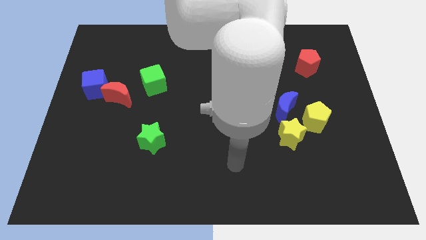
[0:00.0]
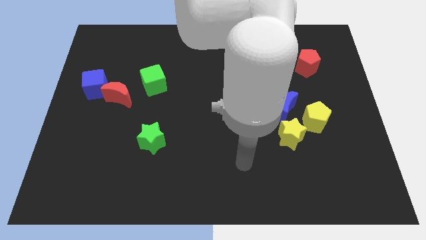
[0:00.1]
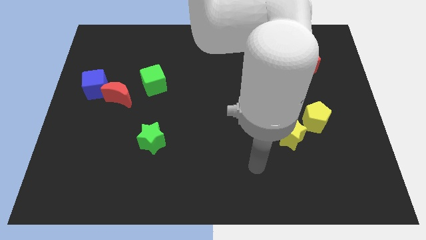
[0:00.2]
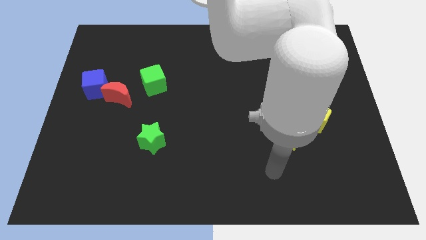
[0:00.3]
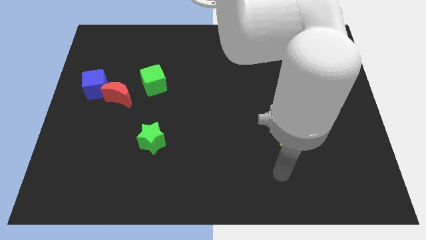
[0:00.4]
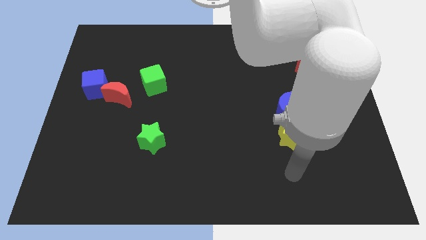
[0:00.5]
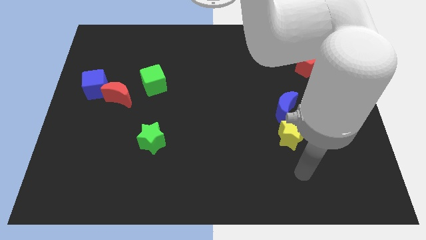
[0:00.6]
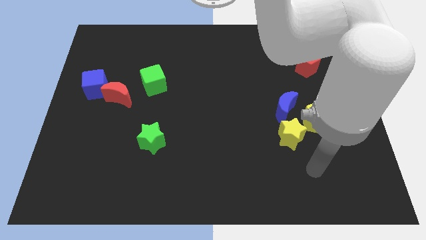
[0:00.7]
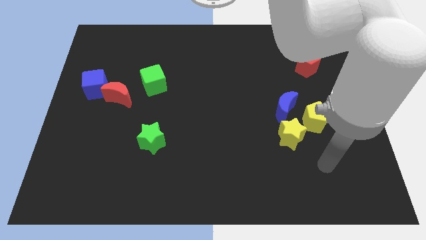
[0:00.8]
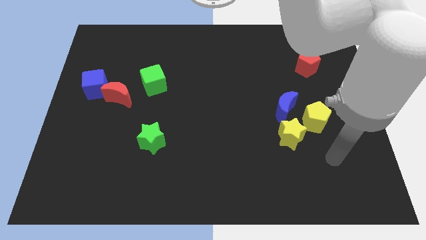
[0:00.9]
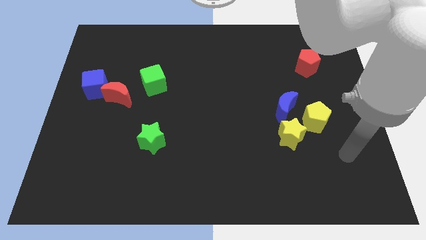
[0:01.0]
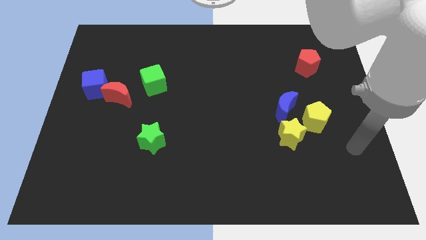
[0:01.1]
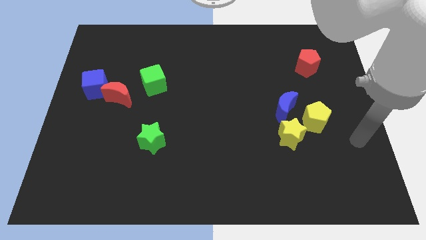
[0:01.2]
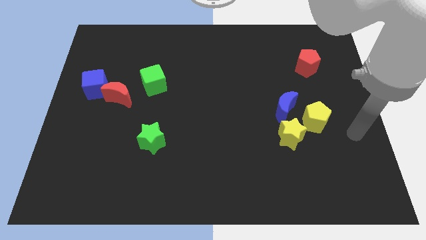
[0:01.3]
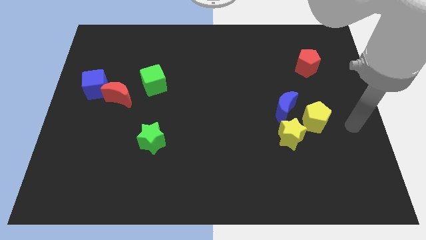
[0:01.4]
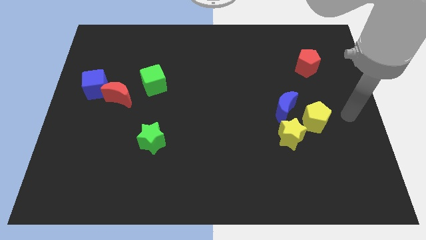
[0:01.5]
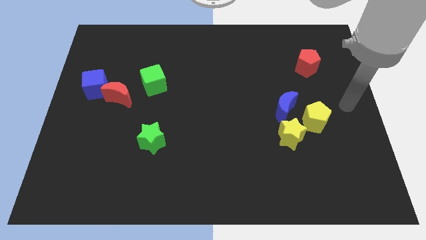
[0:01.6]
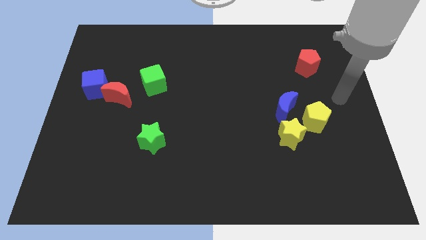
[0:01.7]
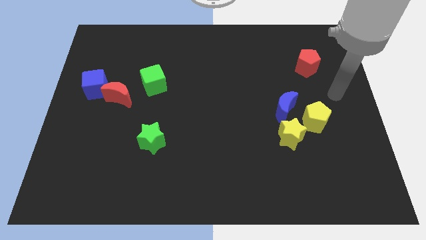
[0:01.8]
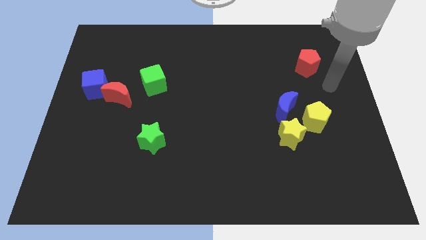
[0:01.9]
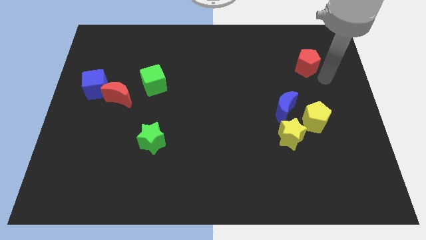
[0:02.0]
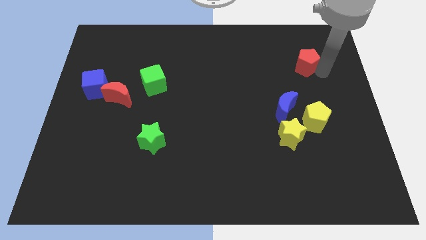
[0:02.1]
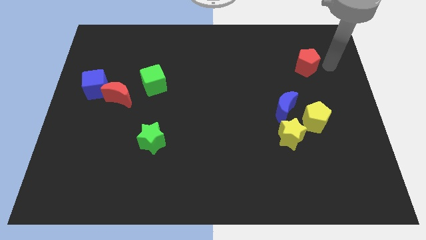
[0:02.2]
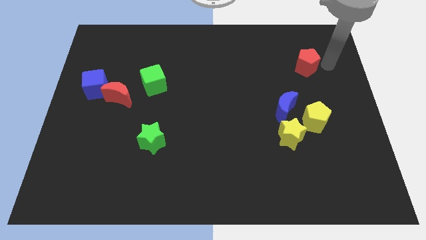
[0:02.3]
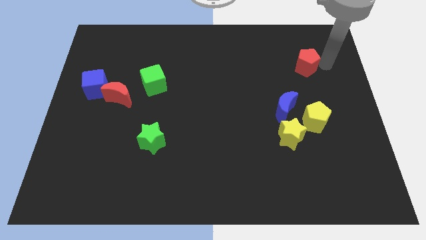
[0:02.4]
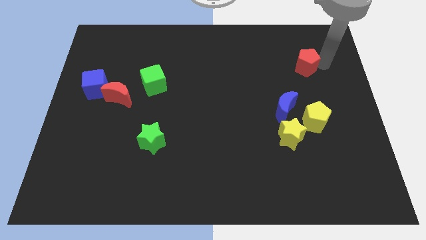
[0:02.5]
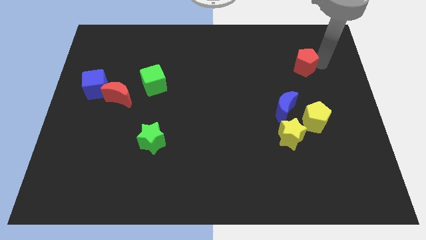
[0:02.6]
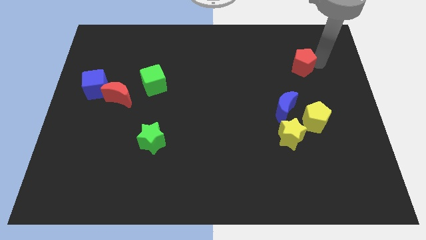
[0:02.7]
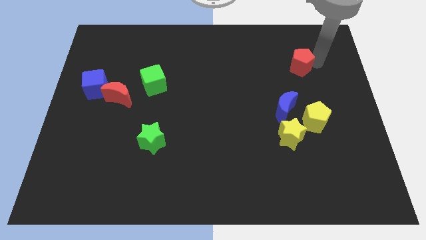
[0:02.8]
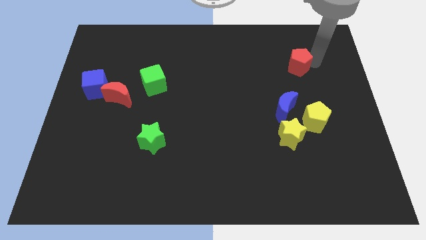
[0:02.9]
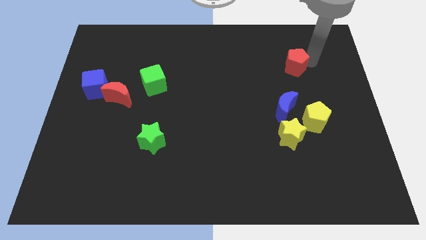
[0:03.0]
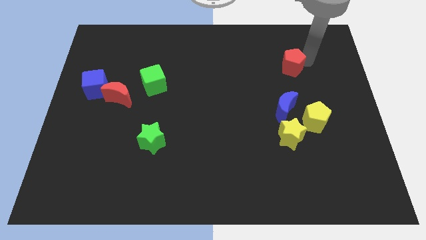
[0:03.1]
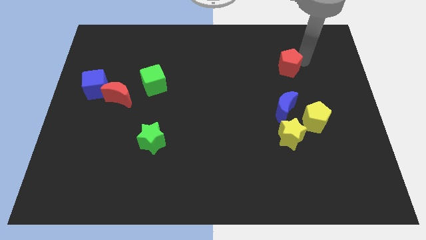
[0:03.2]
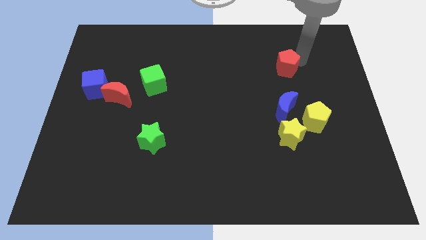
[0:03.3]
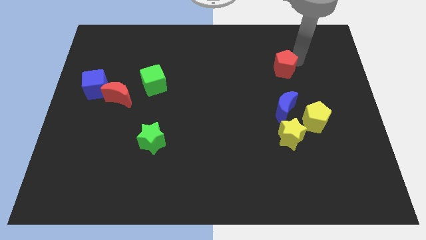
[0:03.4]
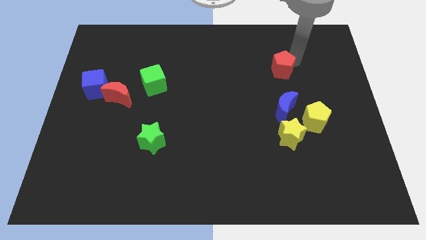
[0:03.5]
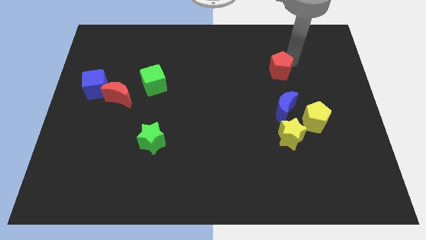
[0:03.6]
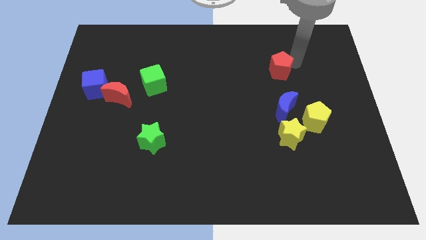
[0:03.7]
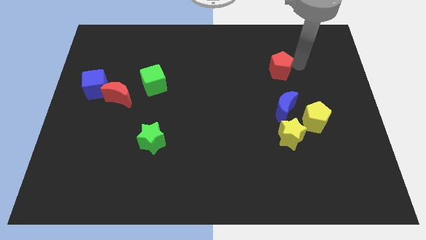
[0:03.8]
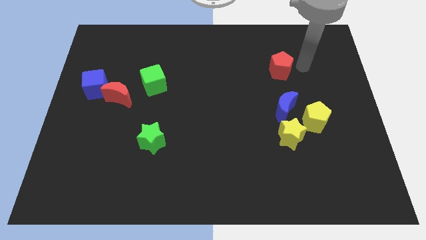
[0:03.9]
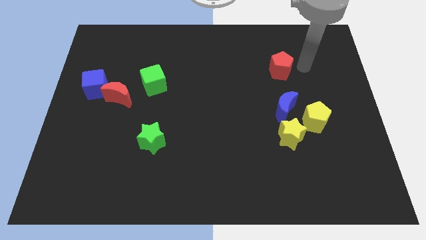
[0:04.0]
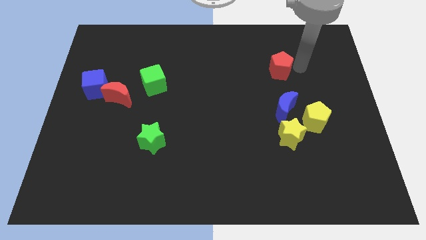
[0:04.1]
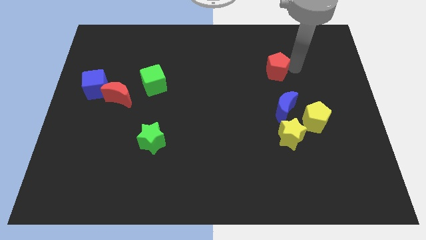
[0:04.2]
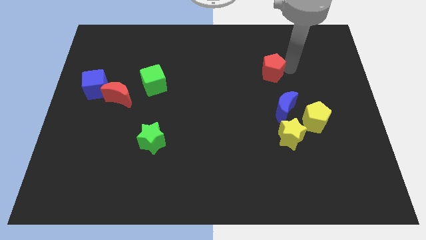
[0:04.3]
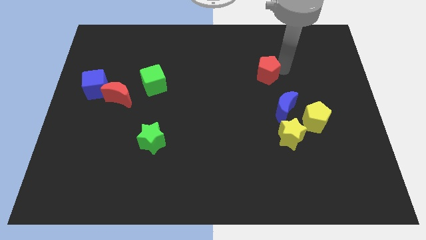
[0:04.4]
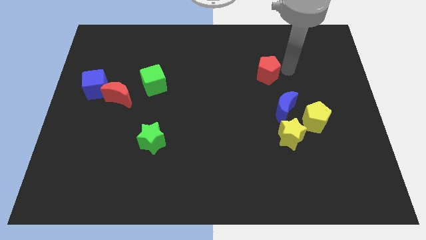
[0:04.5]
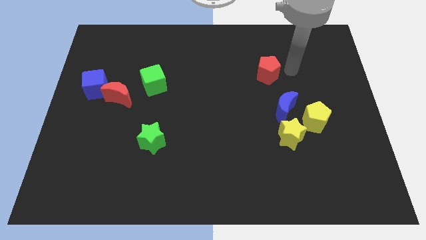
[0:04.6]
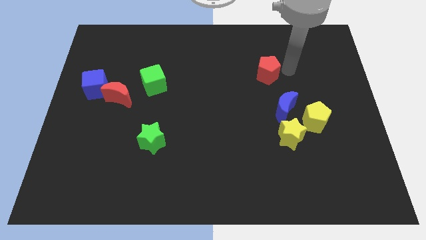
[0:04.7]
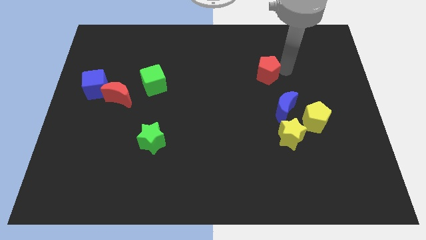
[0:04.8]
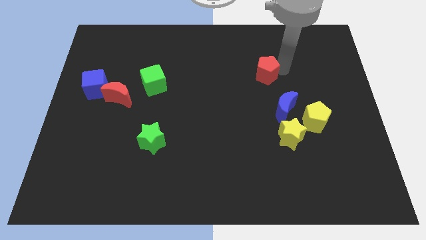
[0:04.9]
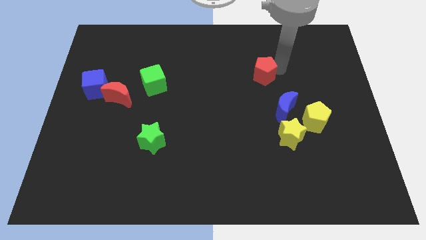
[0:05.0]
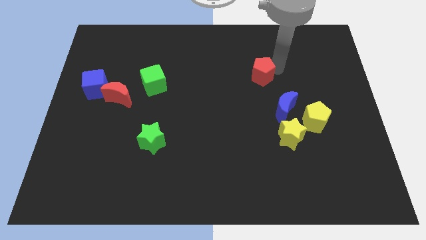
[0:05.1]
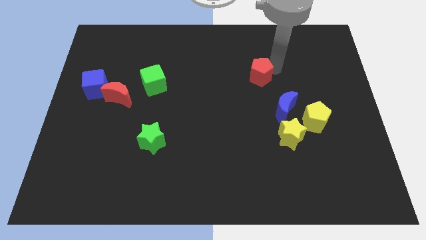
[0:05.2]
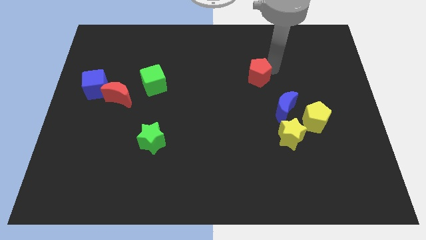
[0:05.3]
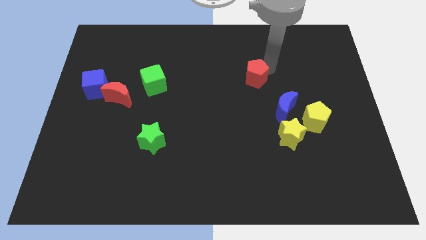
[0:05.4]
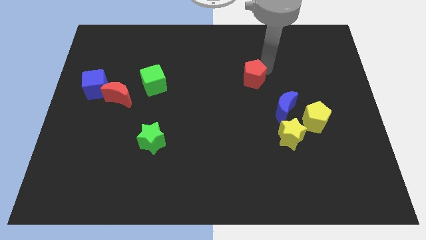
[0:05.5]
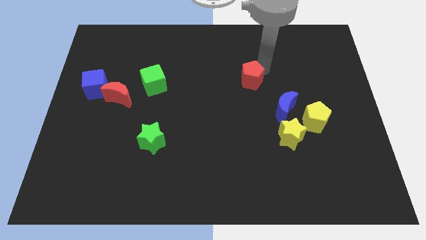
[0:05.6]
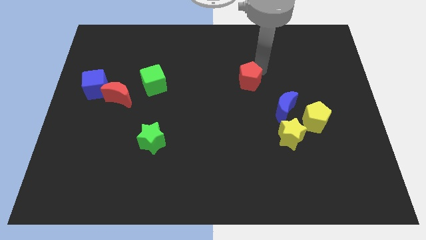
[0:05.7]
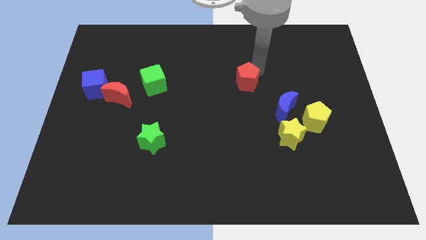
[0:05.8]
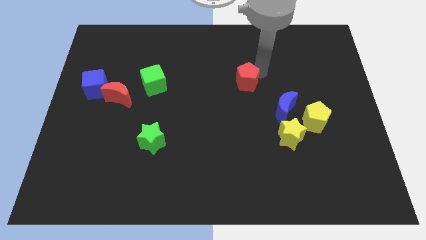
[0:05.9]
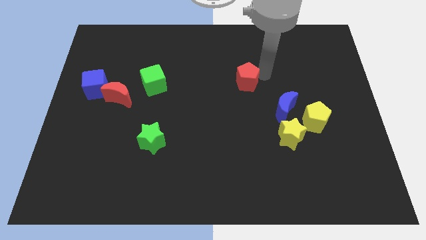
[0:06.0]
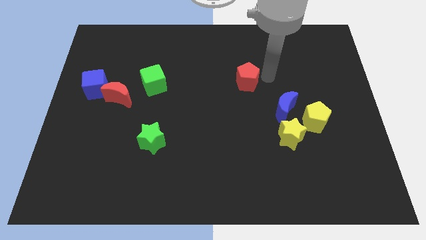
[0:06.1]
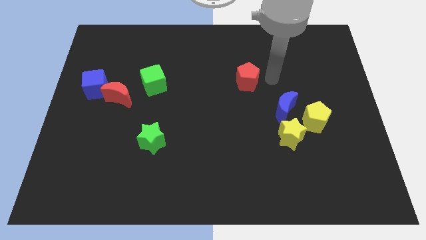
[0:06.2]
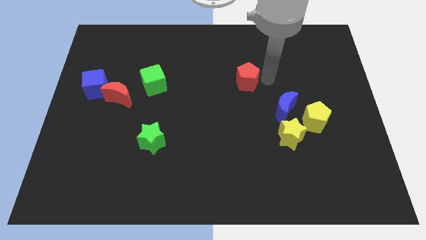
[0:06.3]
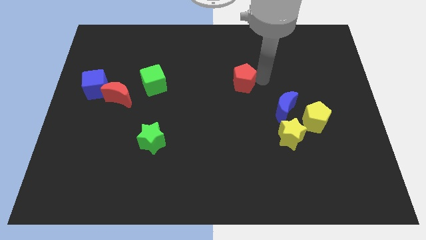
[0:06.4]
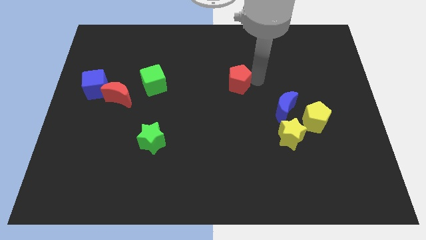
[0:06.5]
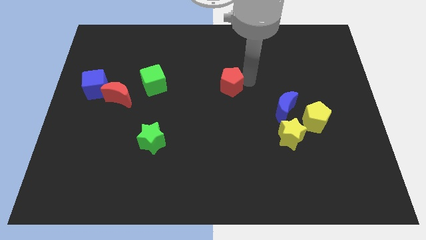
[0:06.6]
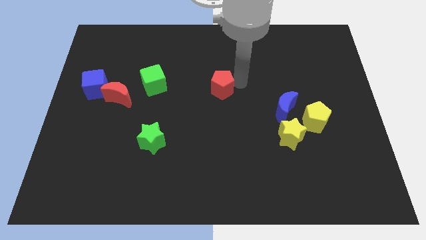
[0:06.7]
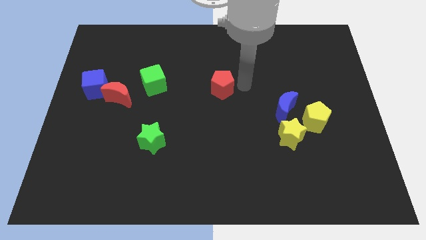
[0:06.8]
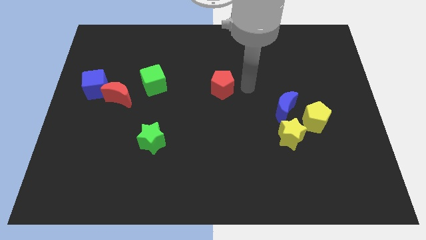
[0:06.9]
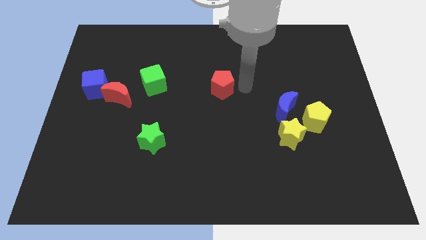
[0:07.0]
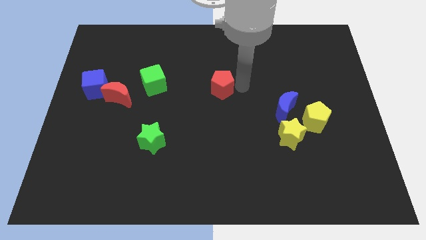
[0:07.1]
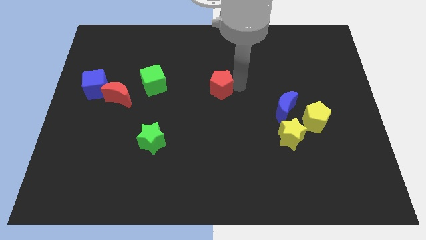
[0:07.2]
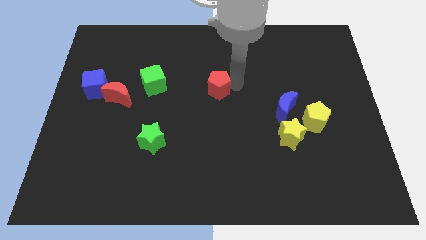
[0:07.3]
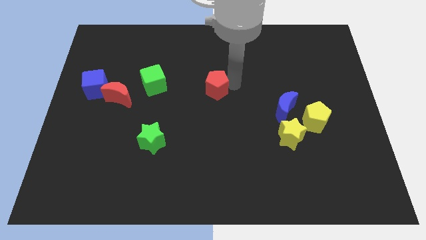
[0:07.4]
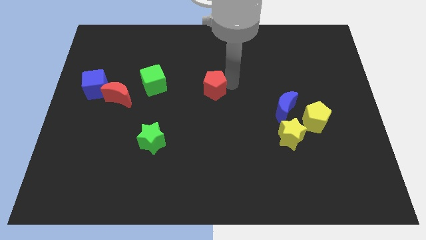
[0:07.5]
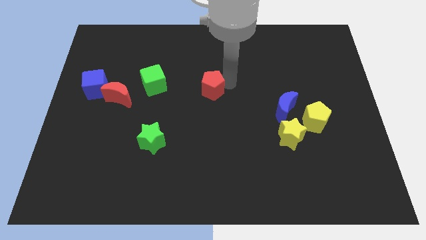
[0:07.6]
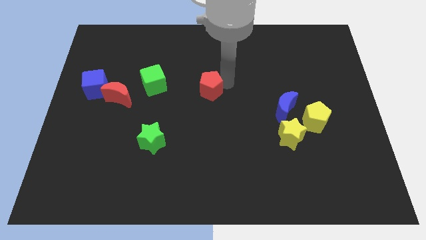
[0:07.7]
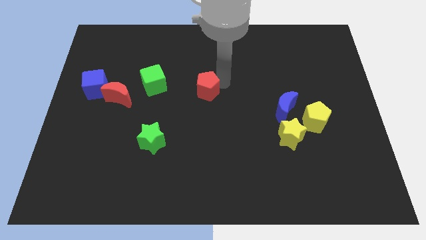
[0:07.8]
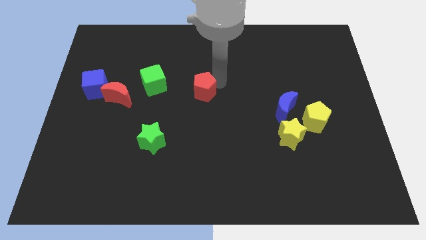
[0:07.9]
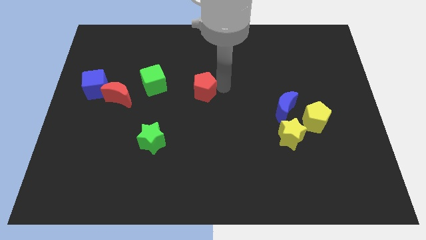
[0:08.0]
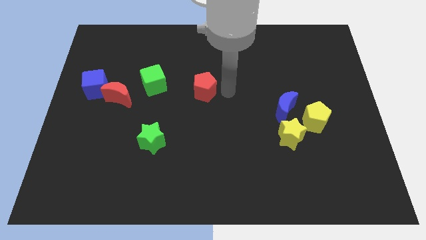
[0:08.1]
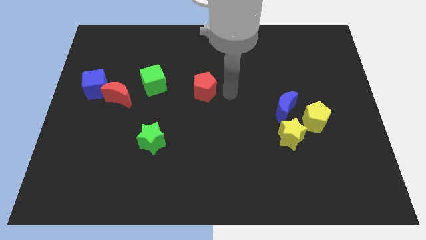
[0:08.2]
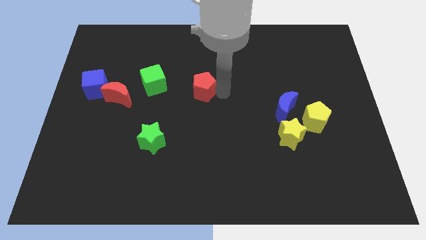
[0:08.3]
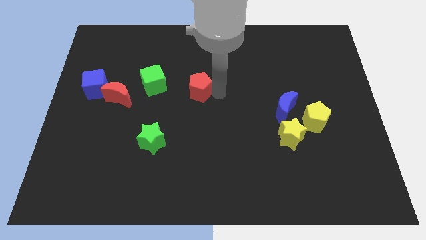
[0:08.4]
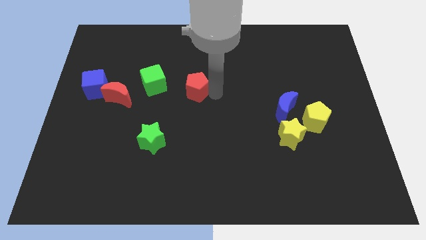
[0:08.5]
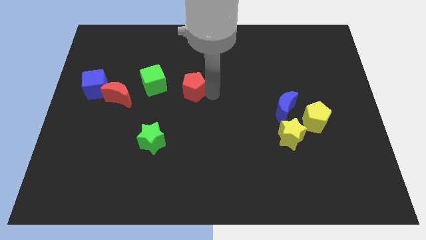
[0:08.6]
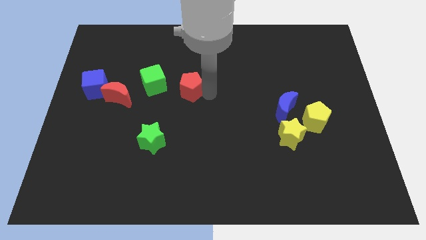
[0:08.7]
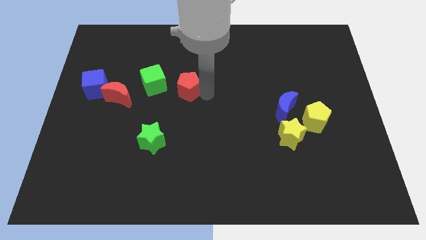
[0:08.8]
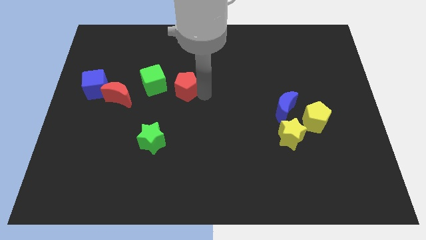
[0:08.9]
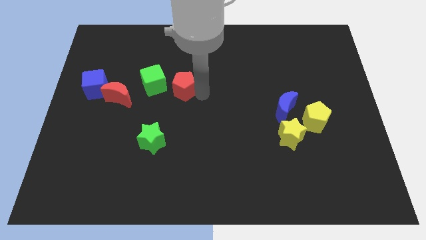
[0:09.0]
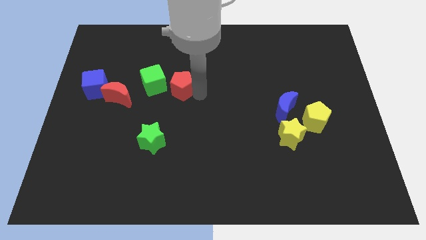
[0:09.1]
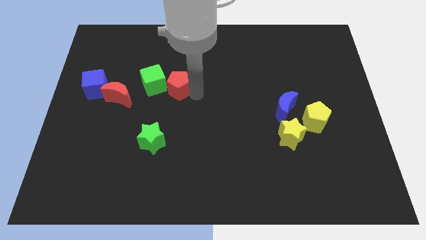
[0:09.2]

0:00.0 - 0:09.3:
put the red pentagon towards the green cube
